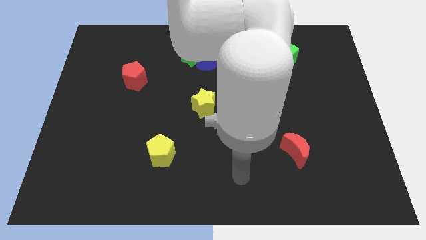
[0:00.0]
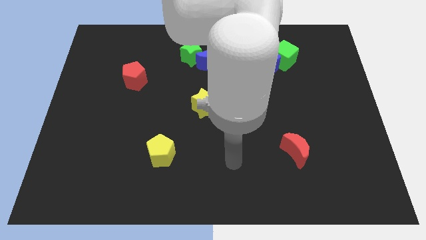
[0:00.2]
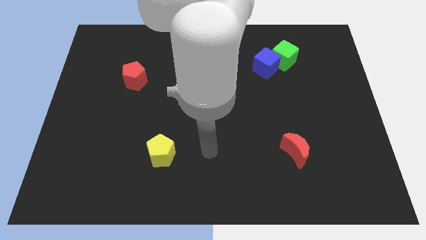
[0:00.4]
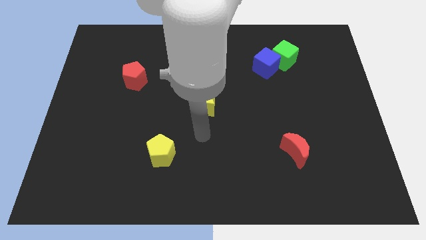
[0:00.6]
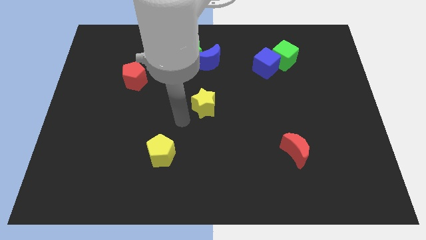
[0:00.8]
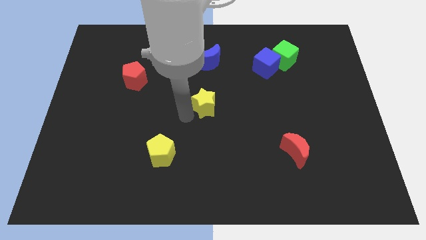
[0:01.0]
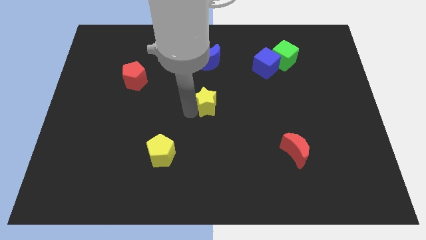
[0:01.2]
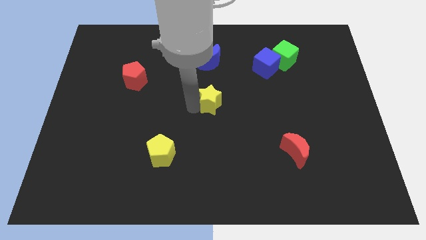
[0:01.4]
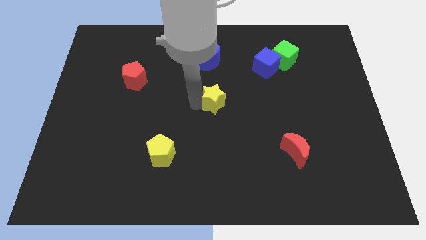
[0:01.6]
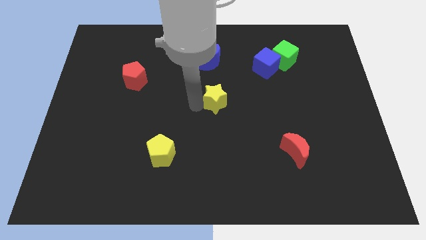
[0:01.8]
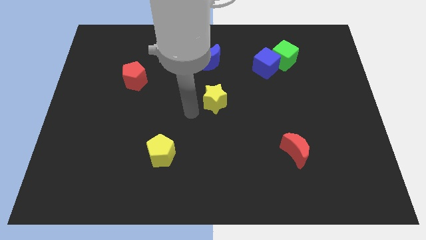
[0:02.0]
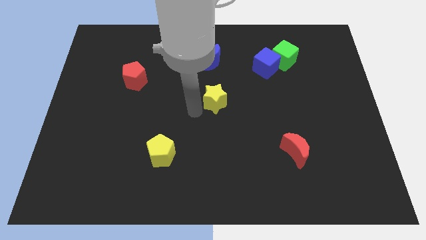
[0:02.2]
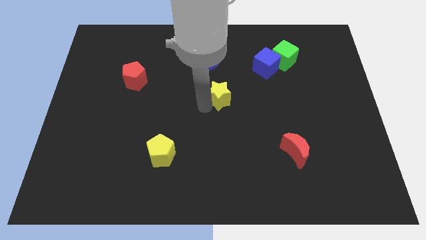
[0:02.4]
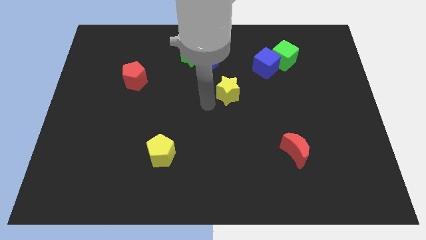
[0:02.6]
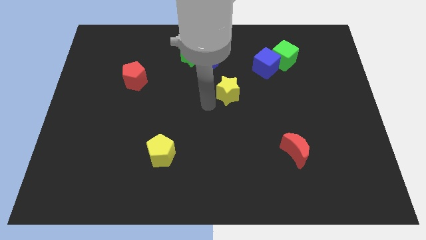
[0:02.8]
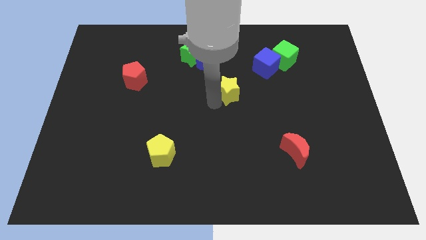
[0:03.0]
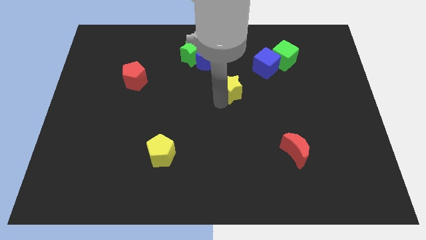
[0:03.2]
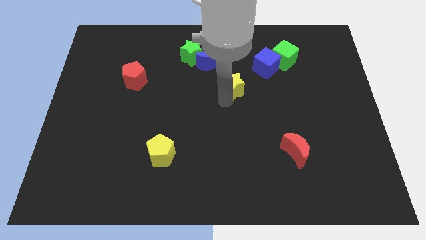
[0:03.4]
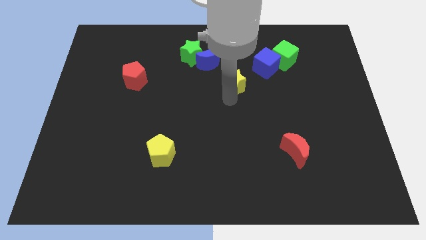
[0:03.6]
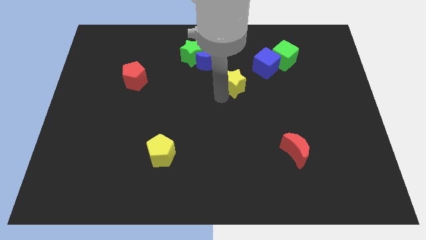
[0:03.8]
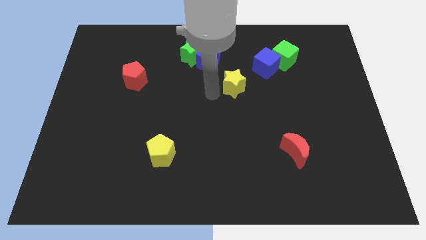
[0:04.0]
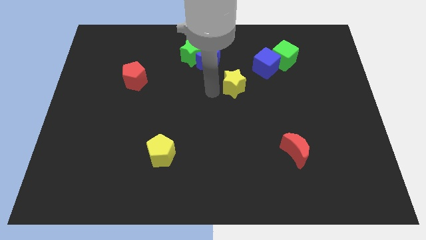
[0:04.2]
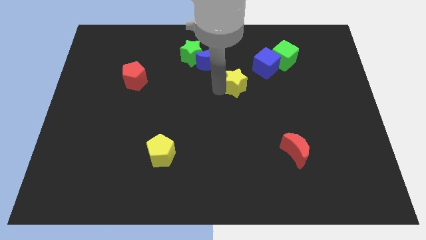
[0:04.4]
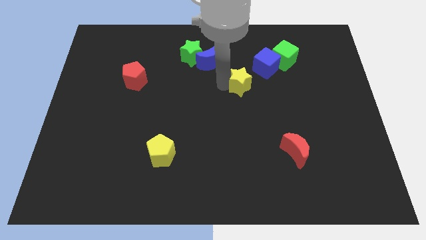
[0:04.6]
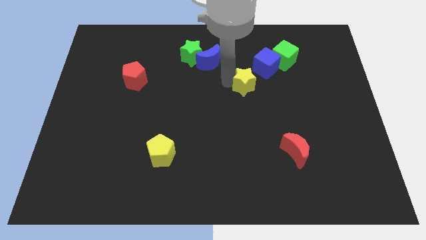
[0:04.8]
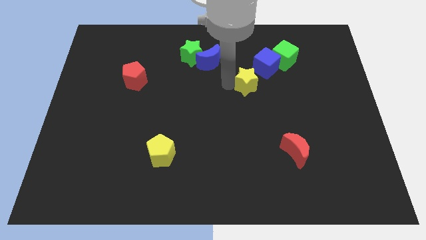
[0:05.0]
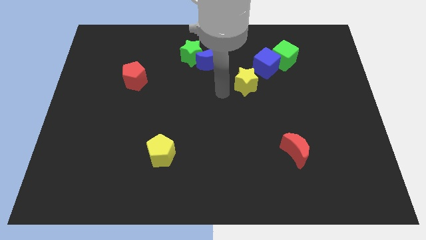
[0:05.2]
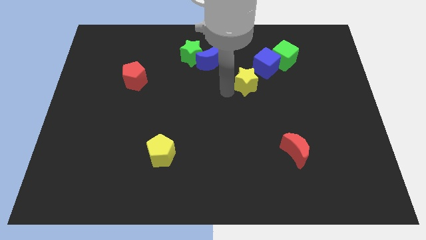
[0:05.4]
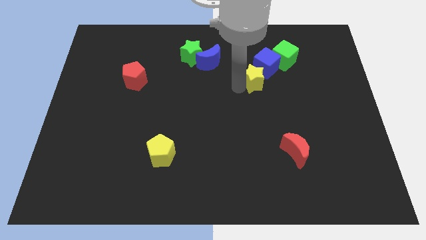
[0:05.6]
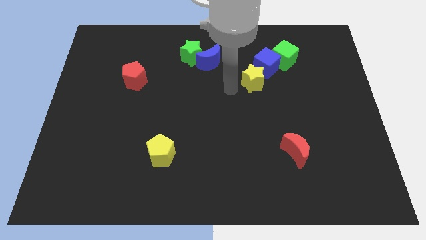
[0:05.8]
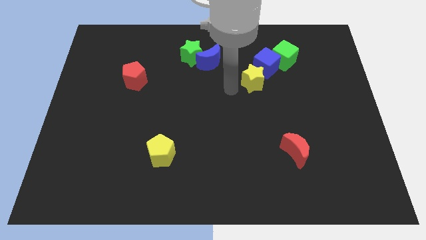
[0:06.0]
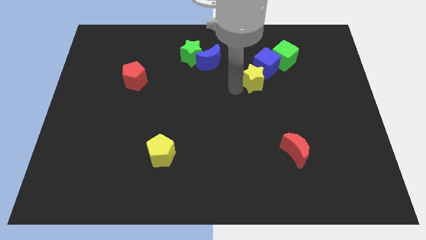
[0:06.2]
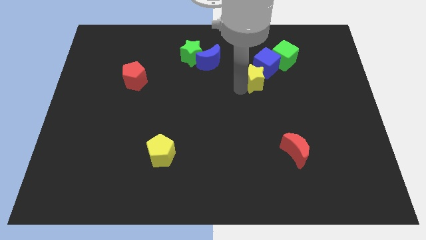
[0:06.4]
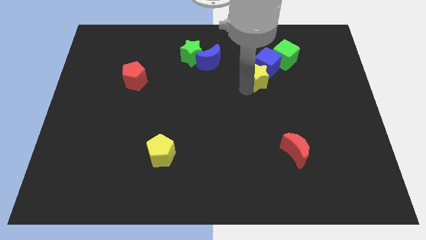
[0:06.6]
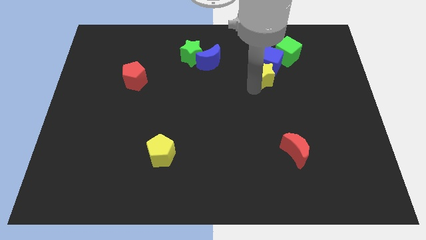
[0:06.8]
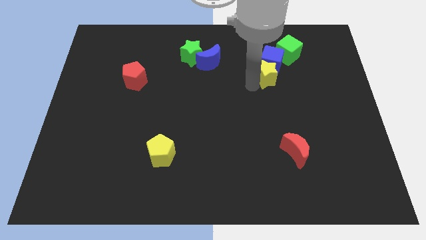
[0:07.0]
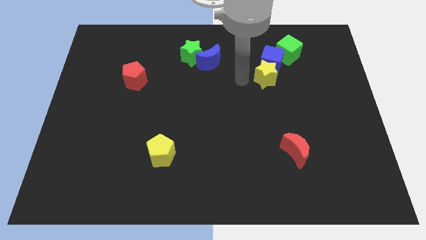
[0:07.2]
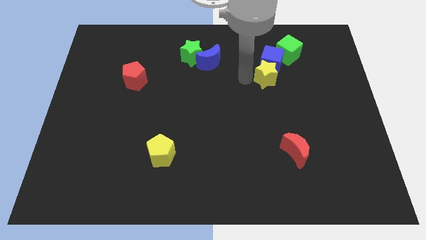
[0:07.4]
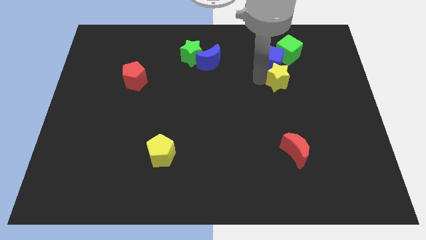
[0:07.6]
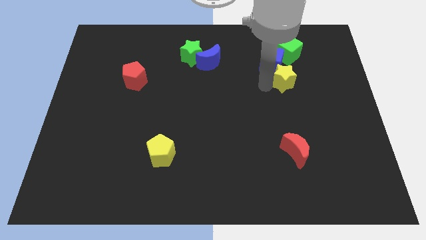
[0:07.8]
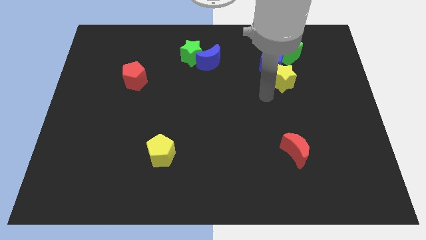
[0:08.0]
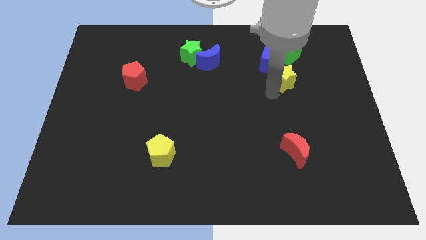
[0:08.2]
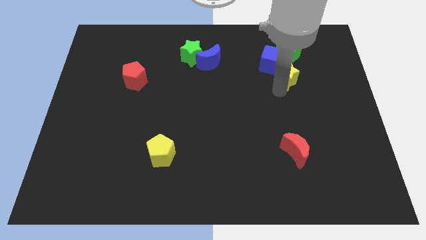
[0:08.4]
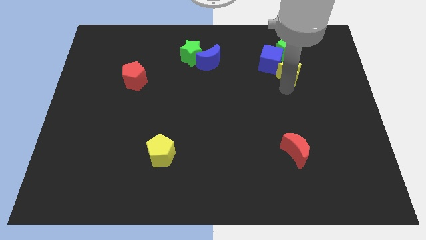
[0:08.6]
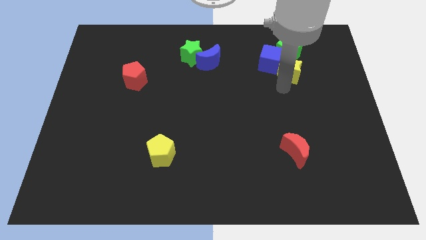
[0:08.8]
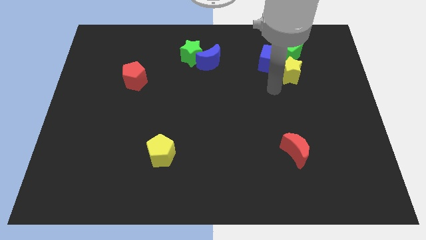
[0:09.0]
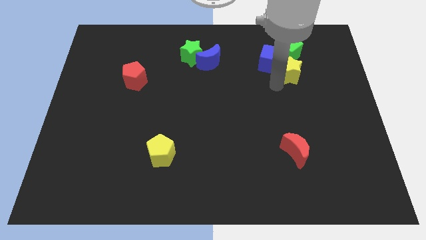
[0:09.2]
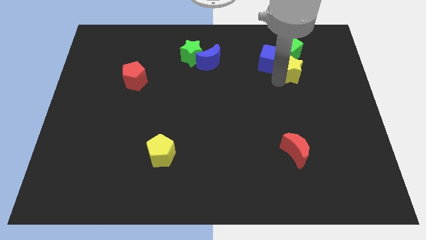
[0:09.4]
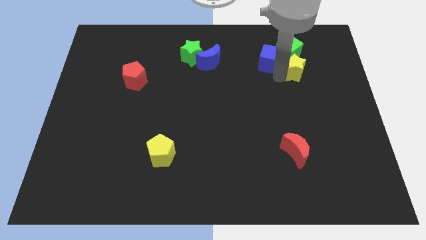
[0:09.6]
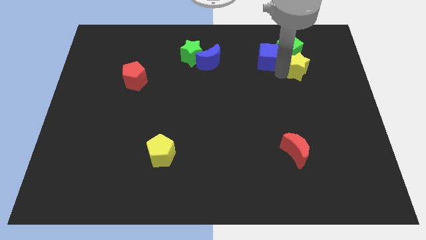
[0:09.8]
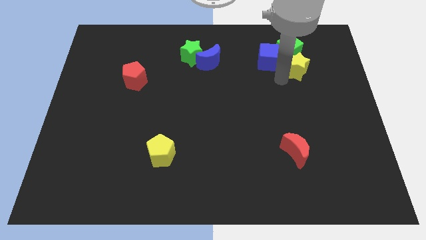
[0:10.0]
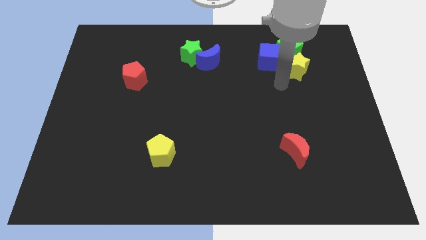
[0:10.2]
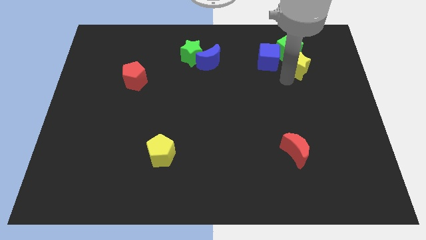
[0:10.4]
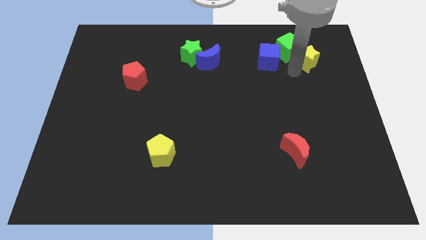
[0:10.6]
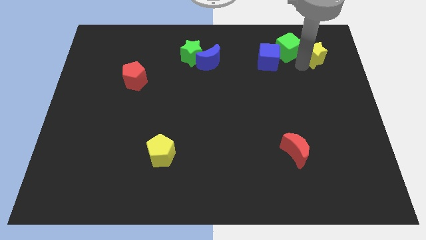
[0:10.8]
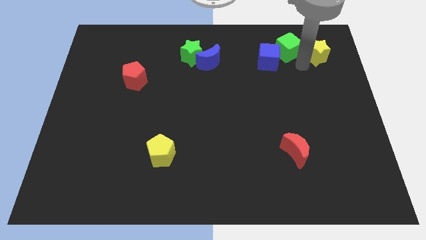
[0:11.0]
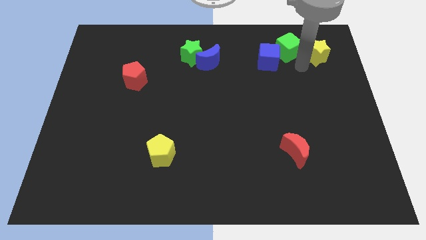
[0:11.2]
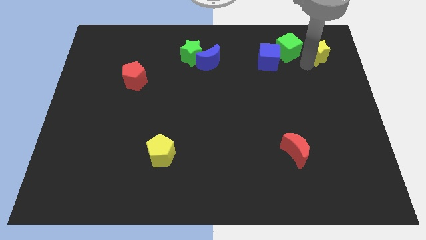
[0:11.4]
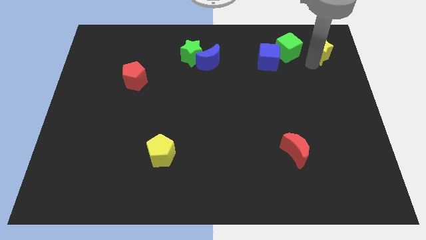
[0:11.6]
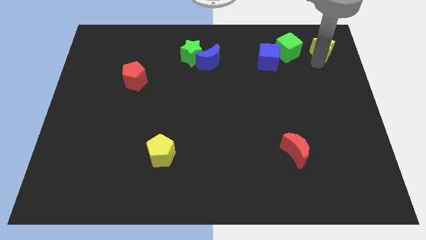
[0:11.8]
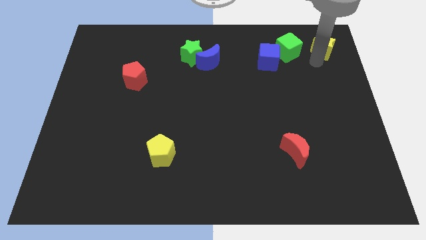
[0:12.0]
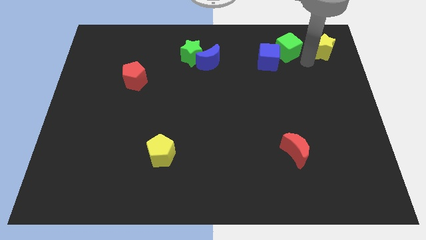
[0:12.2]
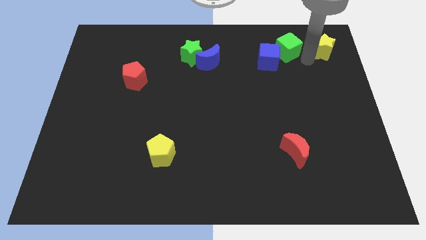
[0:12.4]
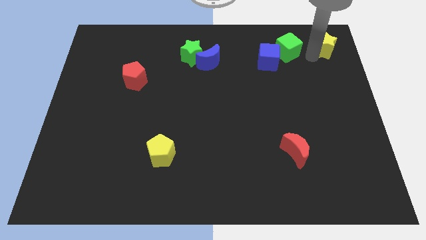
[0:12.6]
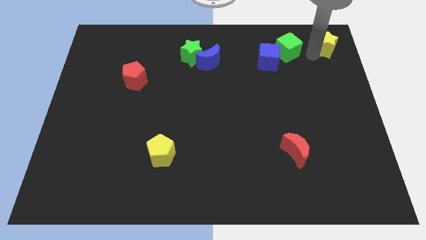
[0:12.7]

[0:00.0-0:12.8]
push the yellow star to the top right
